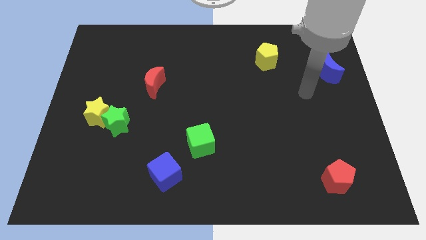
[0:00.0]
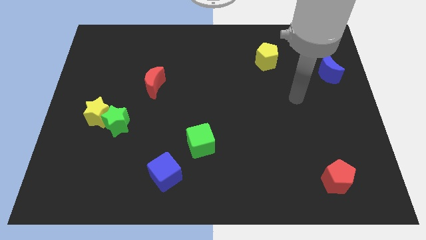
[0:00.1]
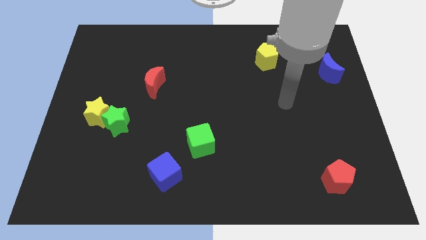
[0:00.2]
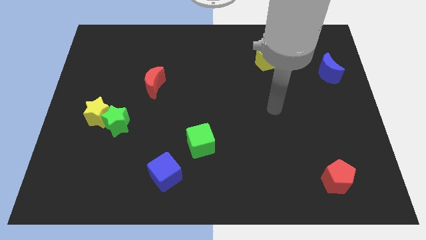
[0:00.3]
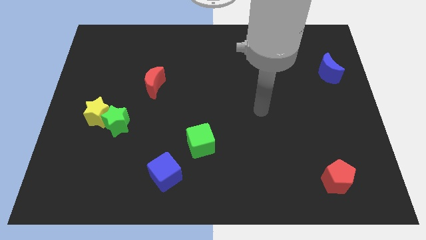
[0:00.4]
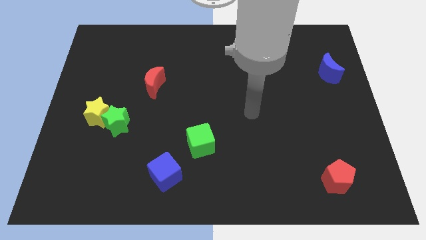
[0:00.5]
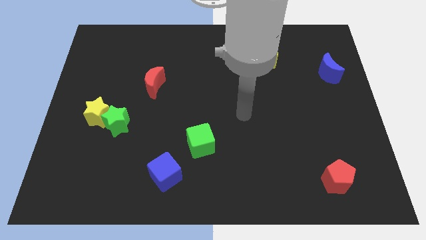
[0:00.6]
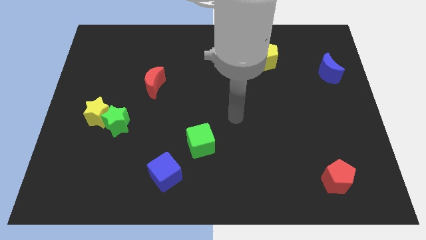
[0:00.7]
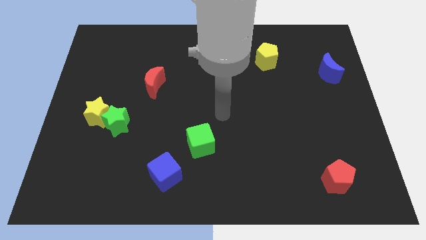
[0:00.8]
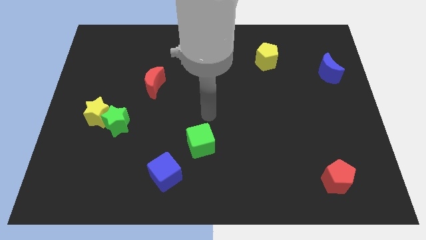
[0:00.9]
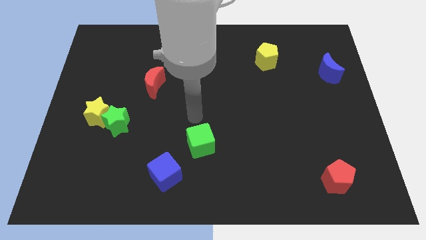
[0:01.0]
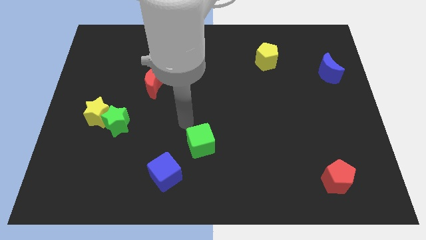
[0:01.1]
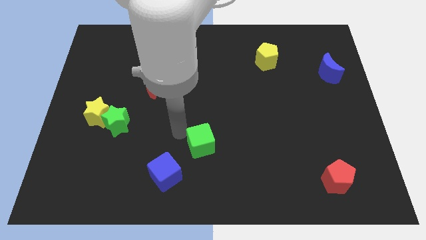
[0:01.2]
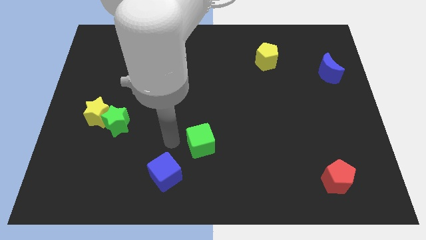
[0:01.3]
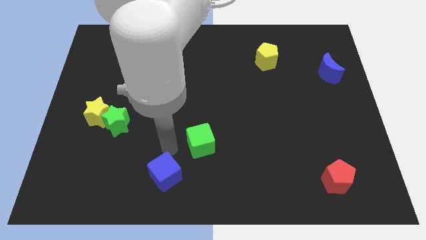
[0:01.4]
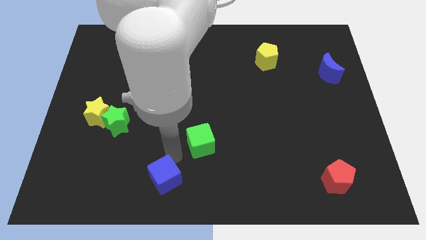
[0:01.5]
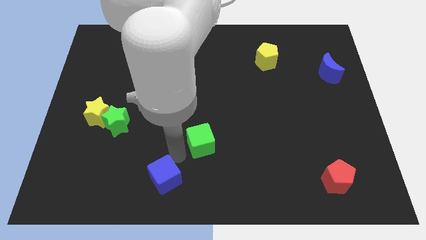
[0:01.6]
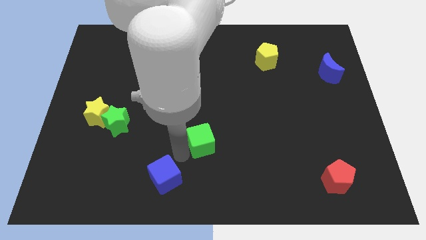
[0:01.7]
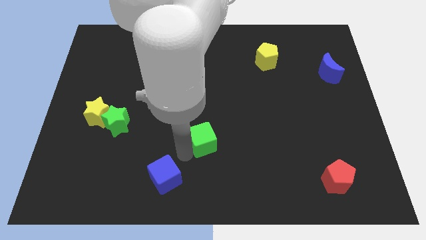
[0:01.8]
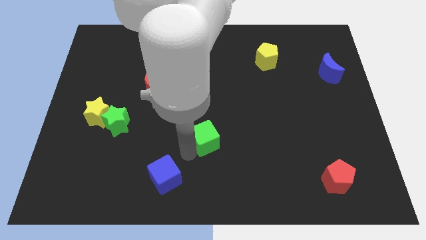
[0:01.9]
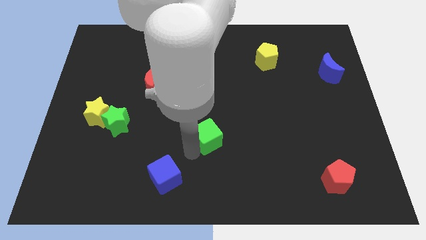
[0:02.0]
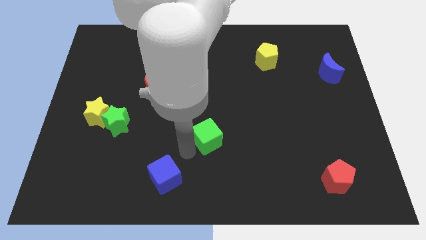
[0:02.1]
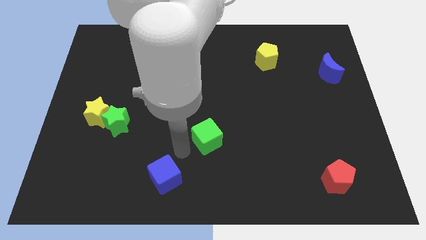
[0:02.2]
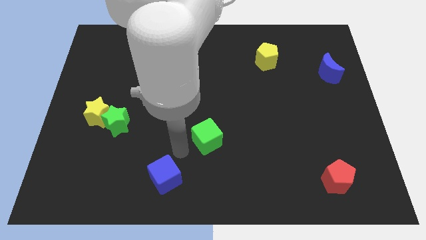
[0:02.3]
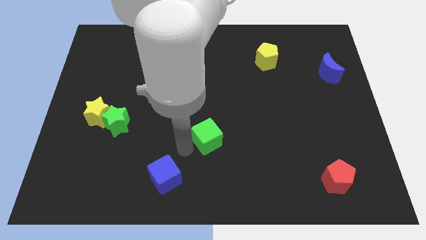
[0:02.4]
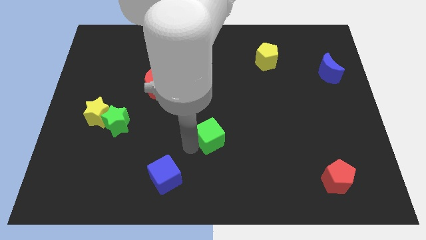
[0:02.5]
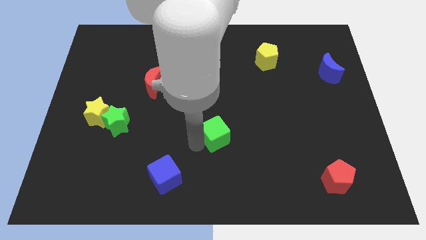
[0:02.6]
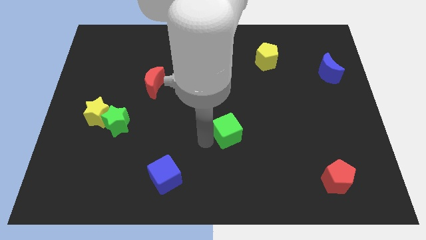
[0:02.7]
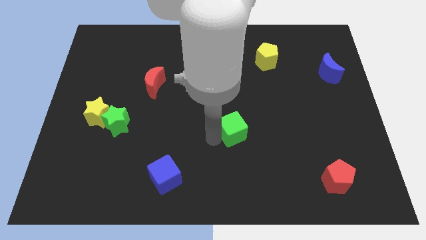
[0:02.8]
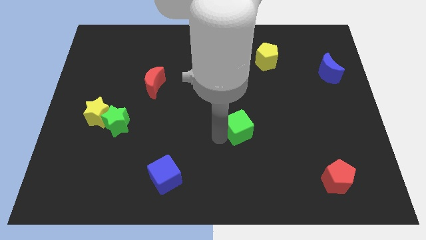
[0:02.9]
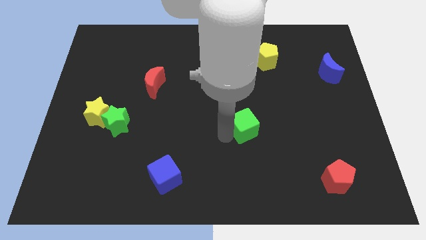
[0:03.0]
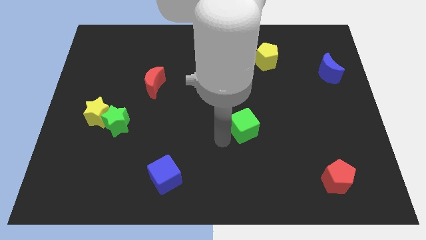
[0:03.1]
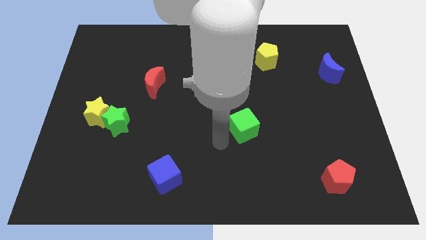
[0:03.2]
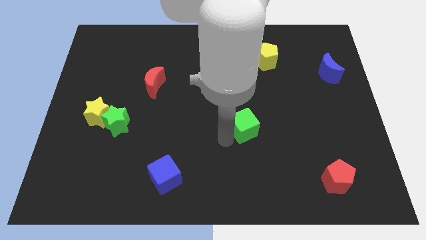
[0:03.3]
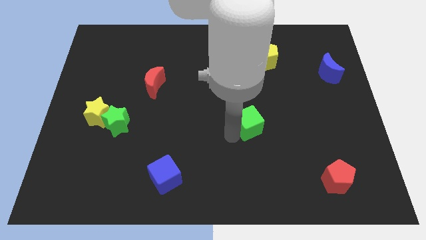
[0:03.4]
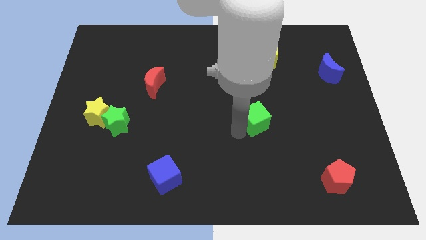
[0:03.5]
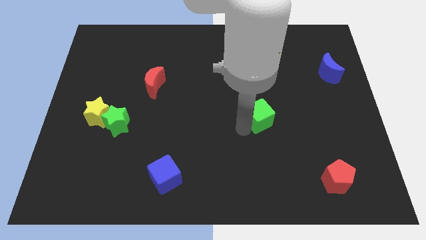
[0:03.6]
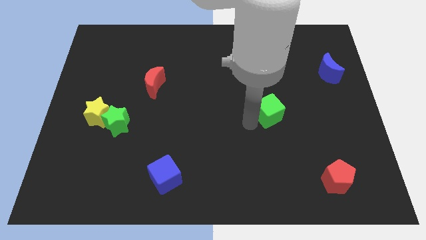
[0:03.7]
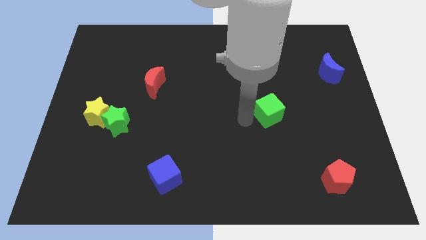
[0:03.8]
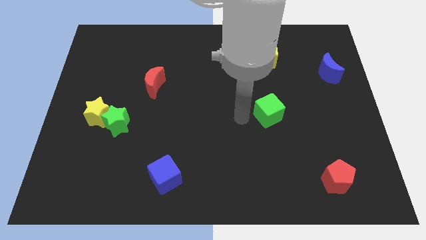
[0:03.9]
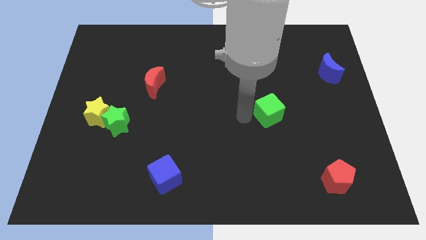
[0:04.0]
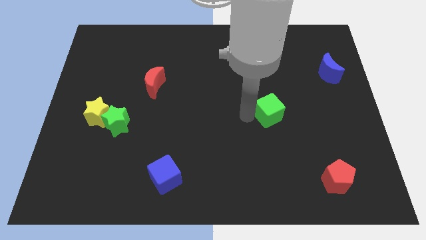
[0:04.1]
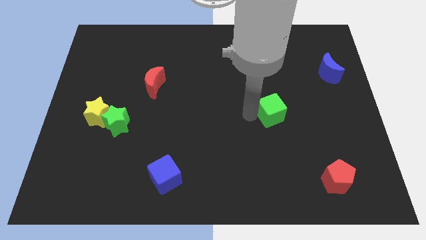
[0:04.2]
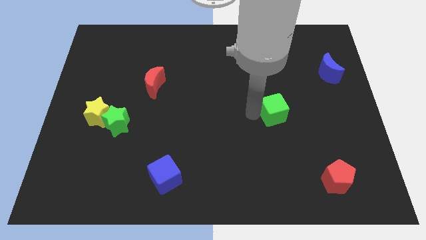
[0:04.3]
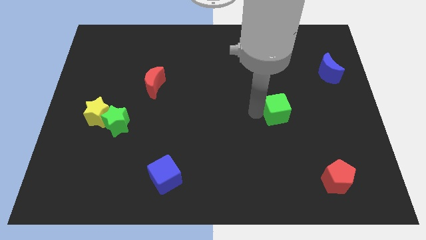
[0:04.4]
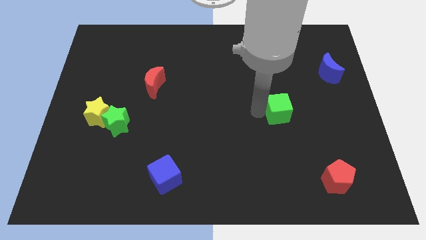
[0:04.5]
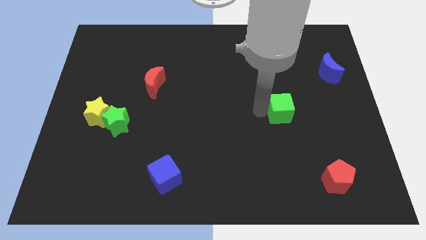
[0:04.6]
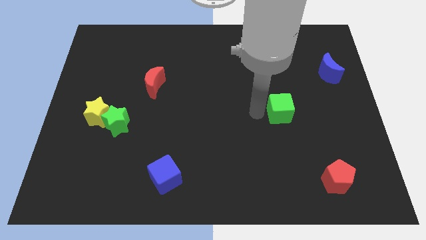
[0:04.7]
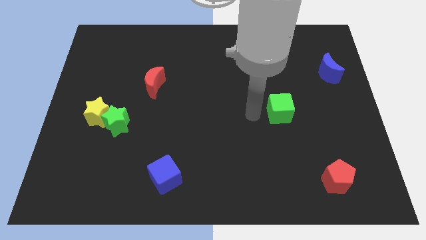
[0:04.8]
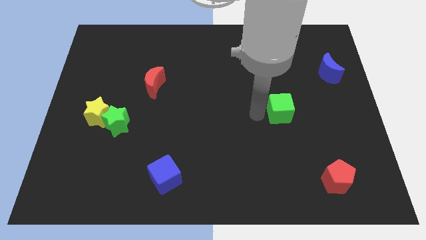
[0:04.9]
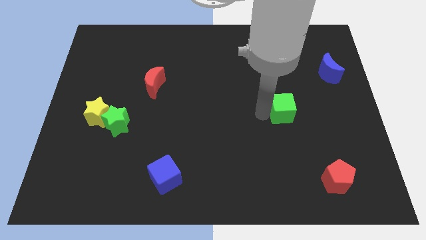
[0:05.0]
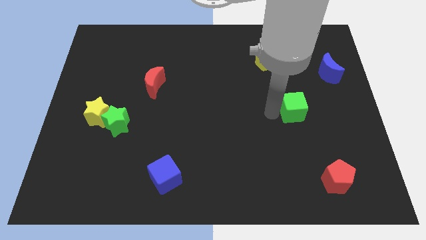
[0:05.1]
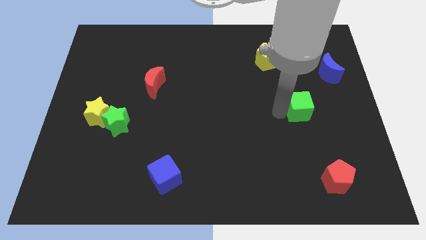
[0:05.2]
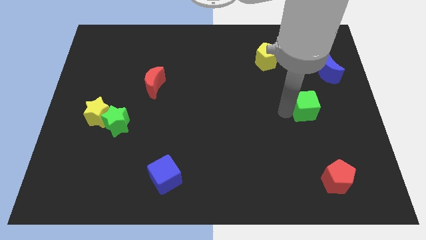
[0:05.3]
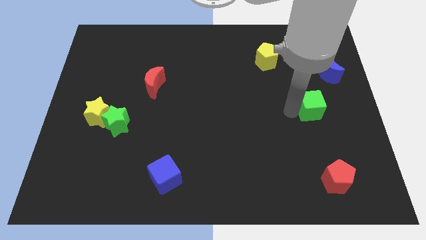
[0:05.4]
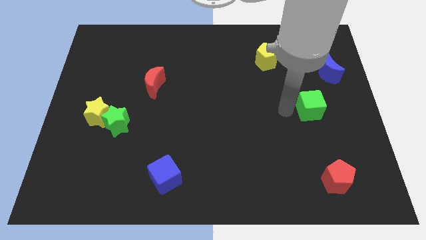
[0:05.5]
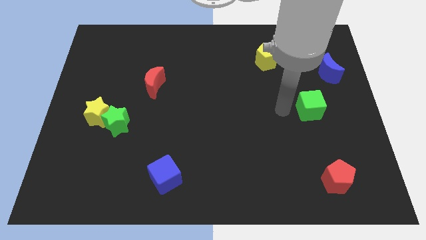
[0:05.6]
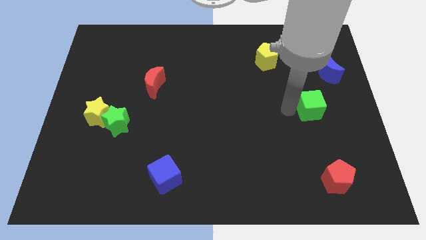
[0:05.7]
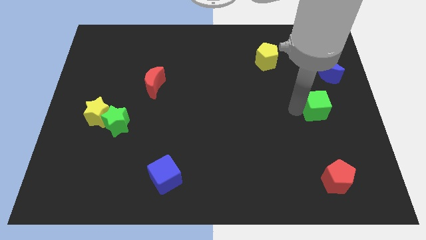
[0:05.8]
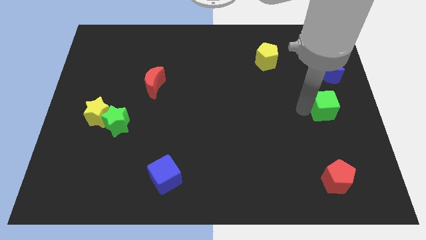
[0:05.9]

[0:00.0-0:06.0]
push the green cube to the center right

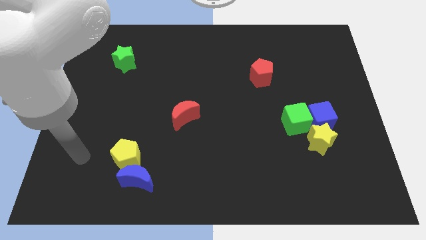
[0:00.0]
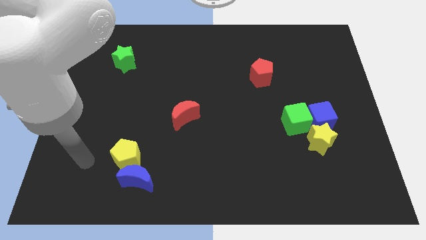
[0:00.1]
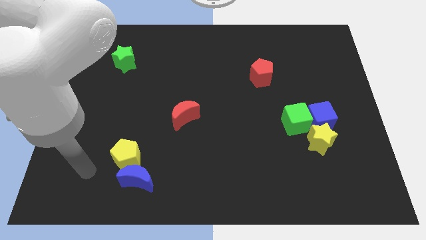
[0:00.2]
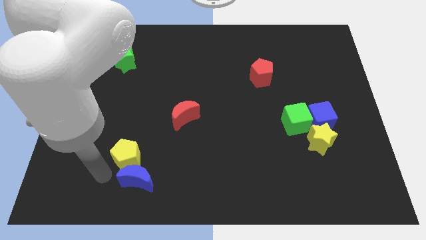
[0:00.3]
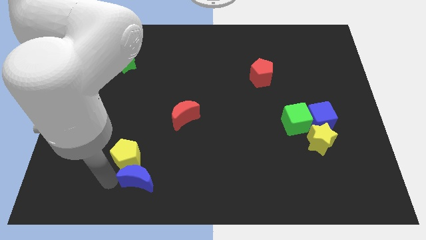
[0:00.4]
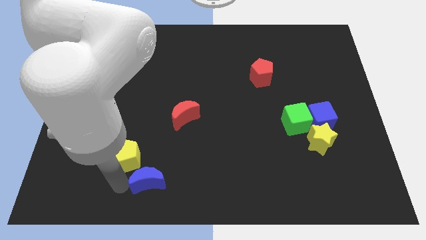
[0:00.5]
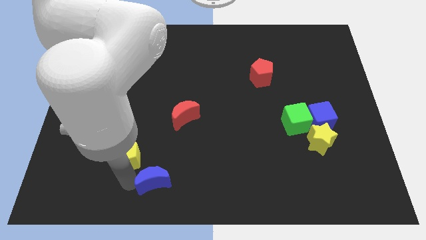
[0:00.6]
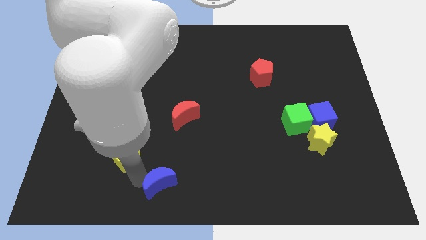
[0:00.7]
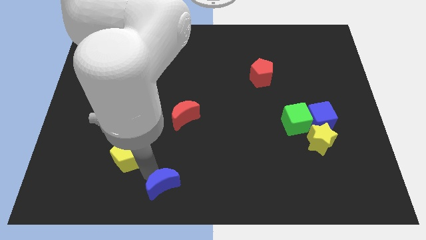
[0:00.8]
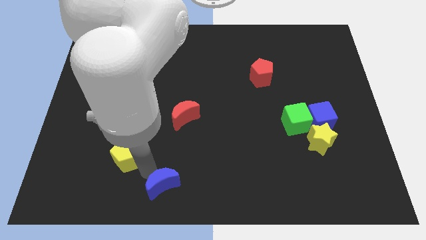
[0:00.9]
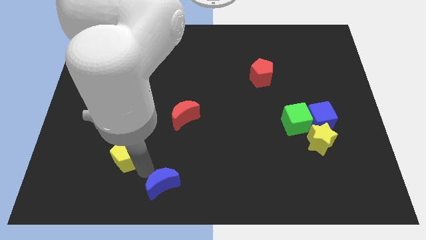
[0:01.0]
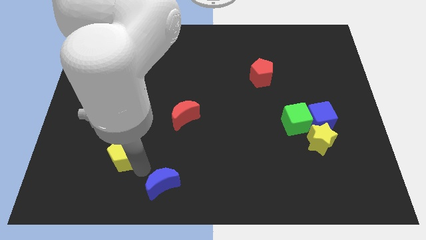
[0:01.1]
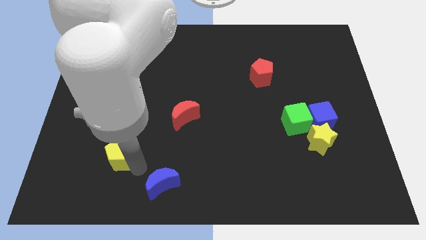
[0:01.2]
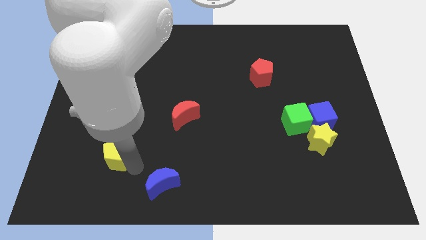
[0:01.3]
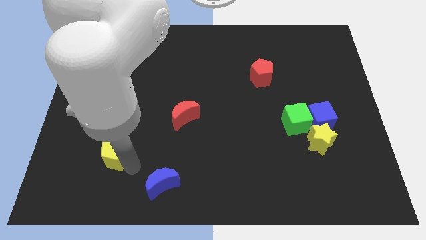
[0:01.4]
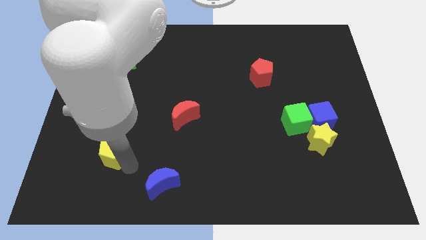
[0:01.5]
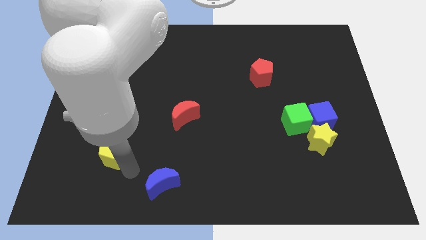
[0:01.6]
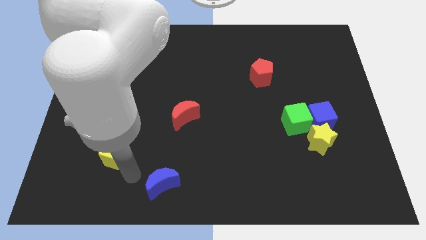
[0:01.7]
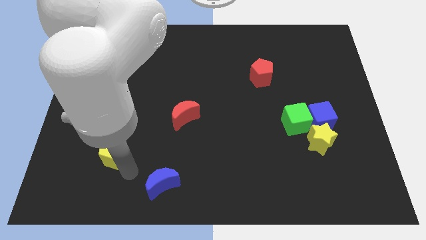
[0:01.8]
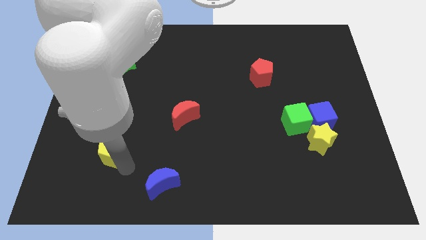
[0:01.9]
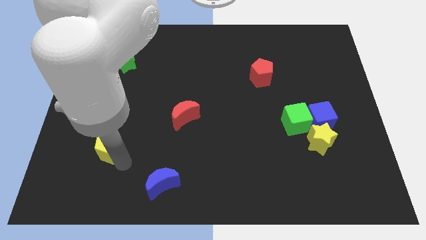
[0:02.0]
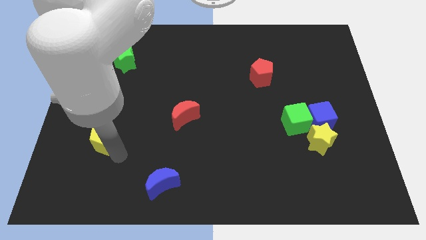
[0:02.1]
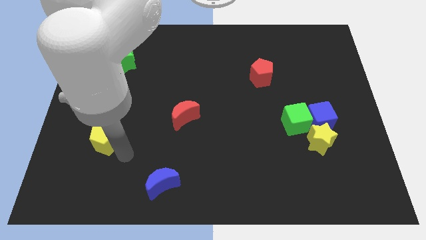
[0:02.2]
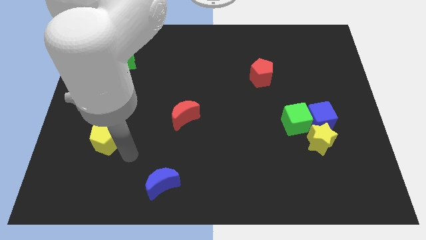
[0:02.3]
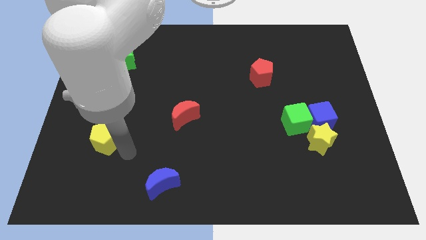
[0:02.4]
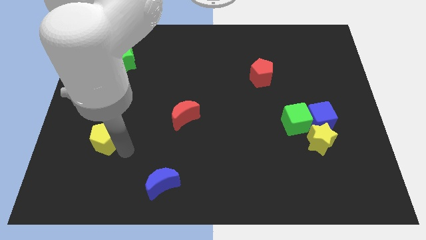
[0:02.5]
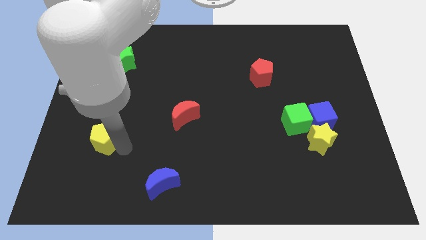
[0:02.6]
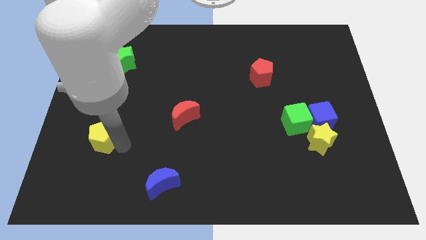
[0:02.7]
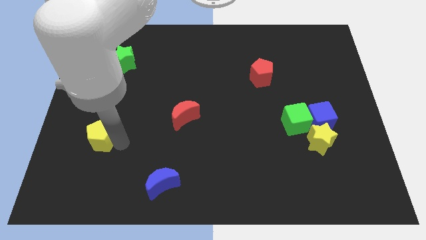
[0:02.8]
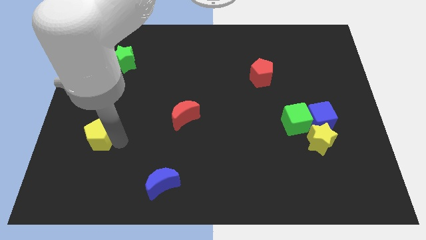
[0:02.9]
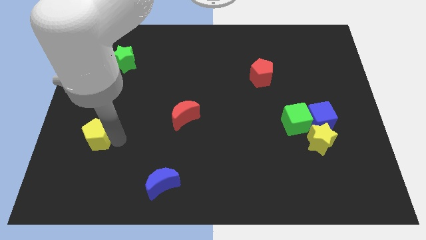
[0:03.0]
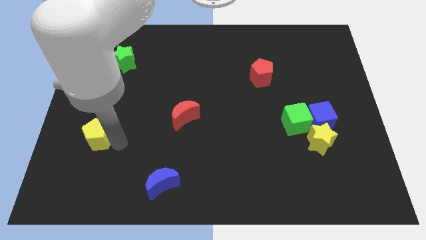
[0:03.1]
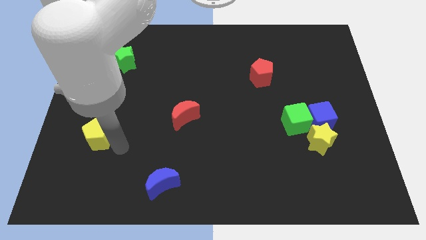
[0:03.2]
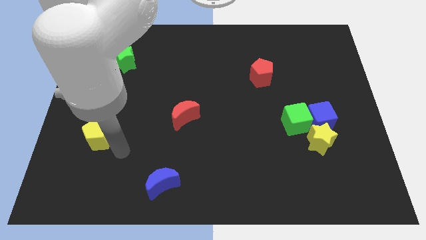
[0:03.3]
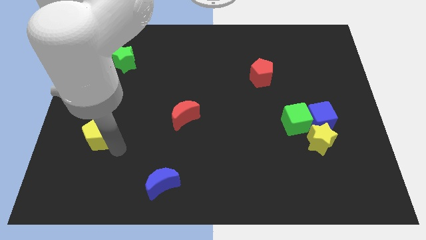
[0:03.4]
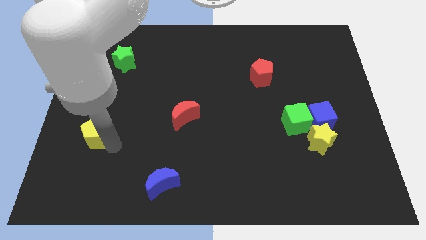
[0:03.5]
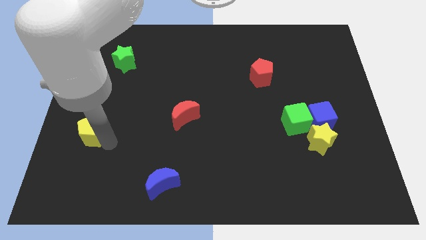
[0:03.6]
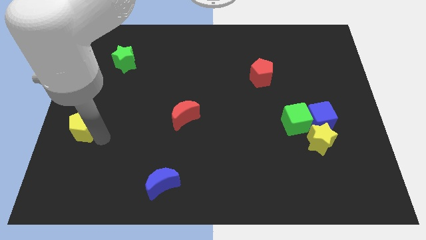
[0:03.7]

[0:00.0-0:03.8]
push the yellow pentagon to the left side of the board
